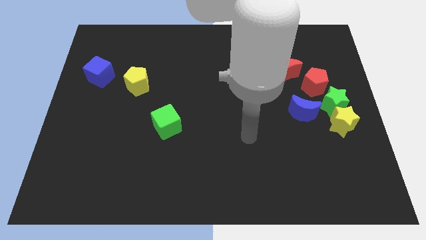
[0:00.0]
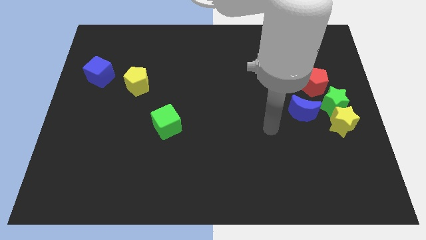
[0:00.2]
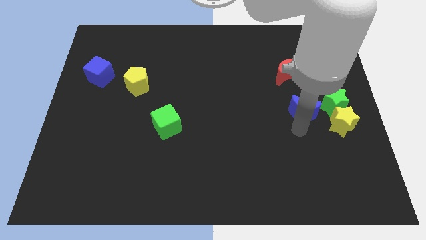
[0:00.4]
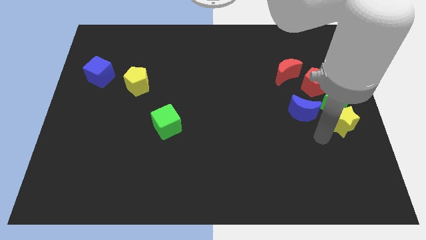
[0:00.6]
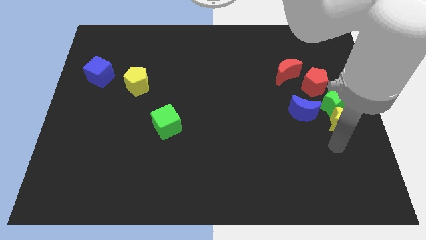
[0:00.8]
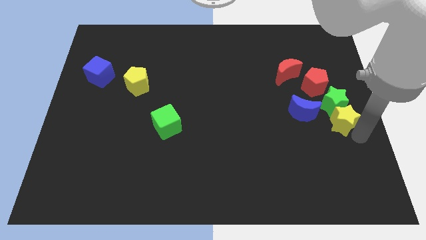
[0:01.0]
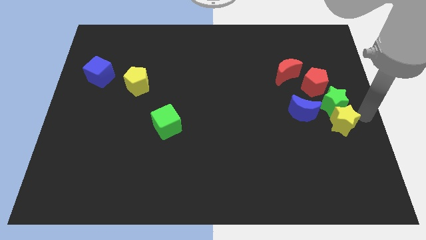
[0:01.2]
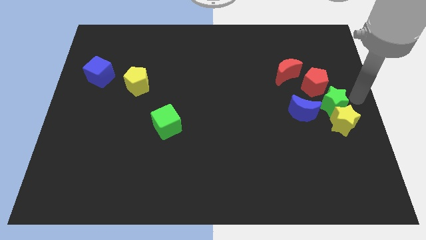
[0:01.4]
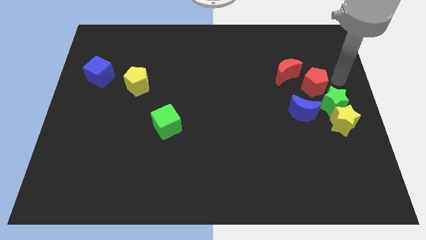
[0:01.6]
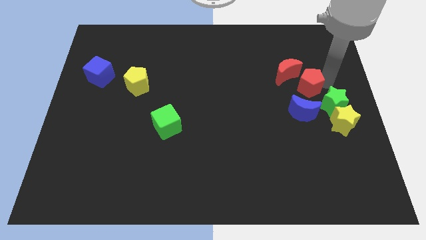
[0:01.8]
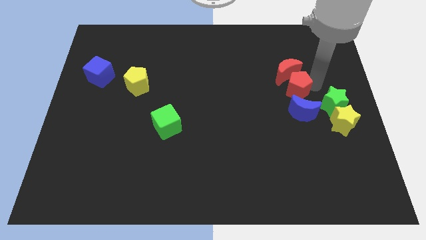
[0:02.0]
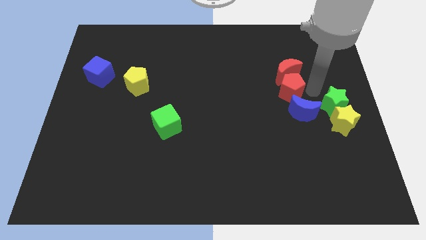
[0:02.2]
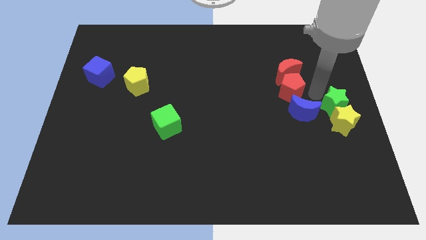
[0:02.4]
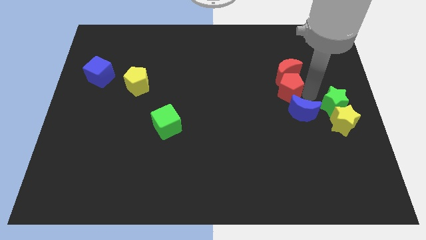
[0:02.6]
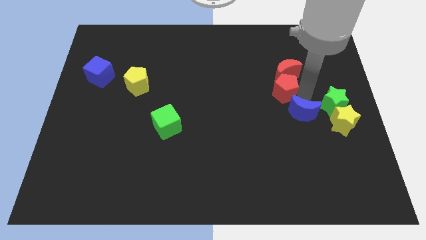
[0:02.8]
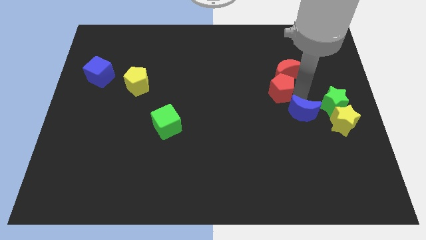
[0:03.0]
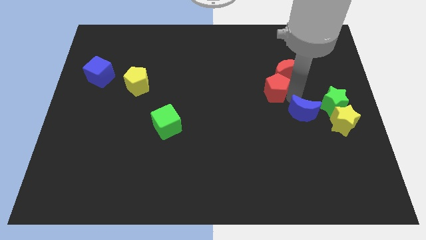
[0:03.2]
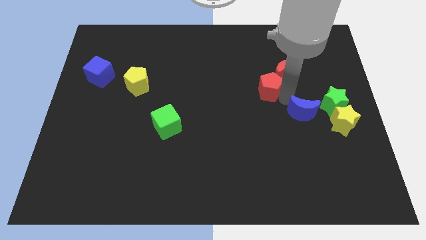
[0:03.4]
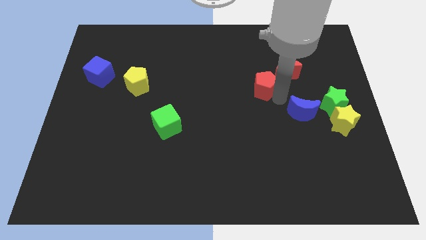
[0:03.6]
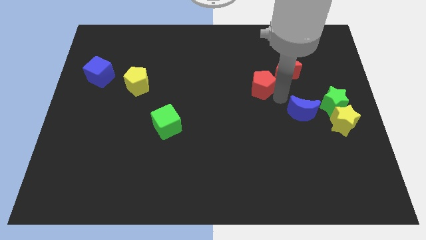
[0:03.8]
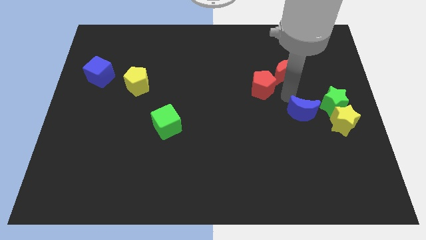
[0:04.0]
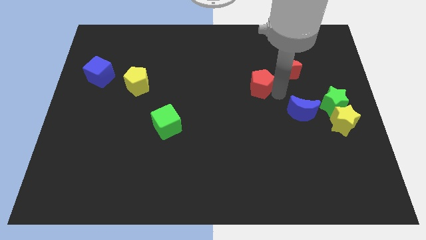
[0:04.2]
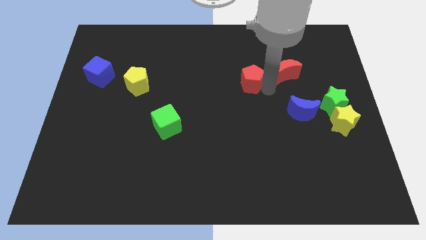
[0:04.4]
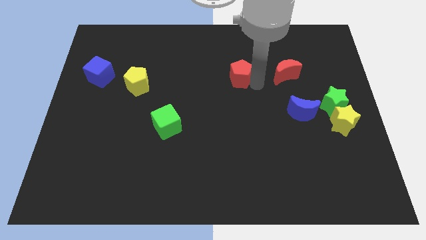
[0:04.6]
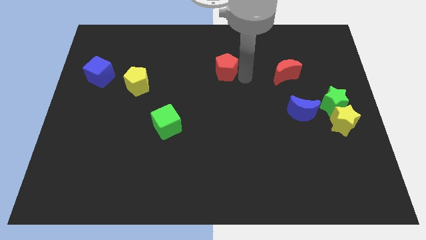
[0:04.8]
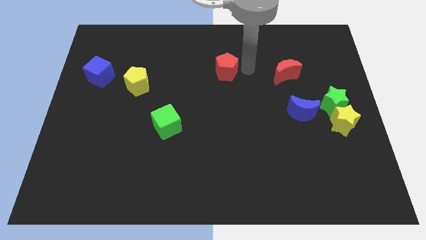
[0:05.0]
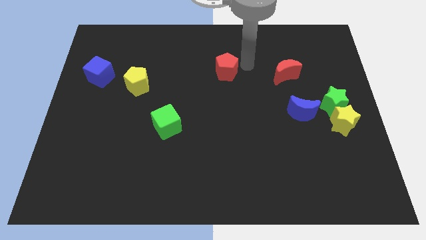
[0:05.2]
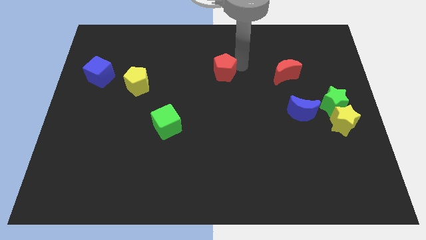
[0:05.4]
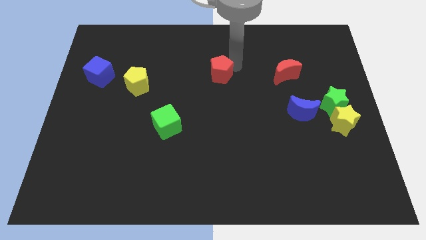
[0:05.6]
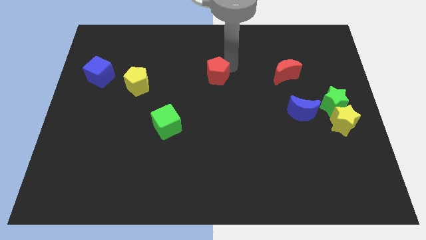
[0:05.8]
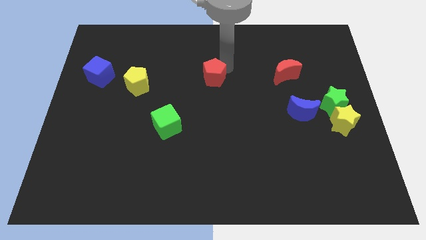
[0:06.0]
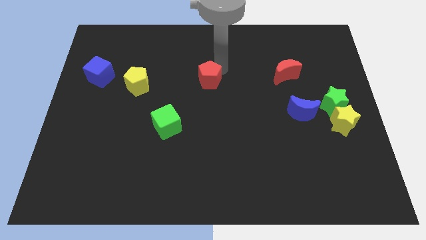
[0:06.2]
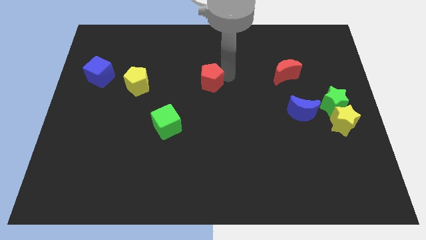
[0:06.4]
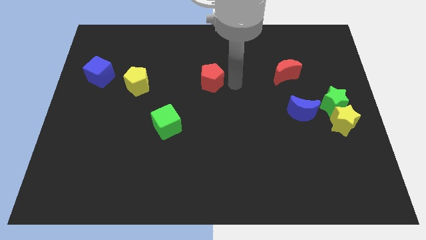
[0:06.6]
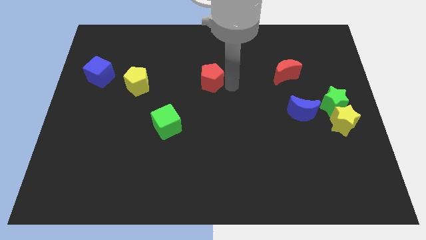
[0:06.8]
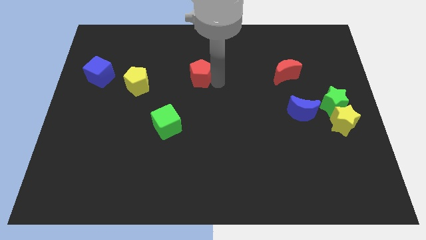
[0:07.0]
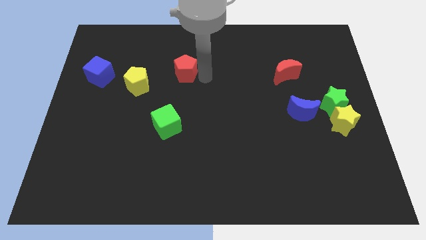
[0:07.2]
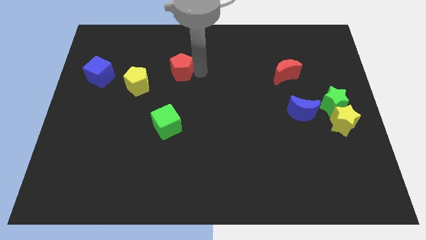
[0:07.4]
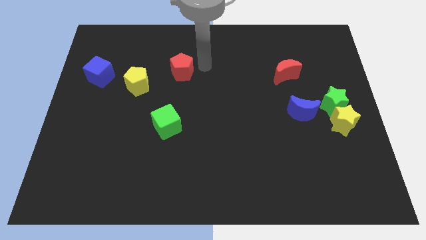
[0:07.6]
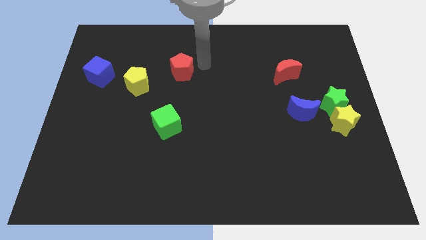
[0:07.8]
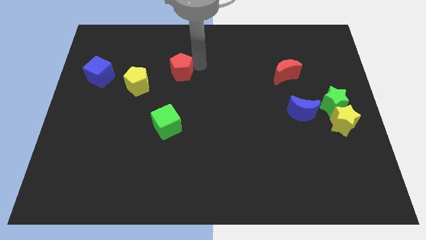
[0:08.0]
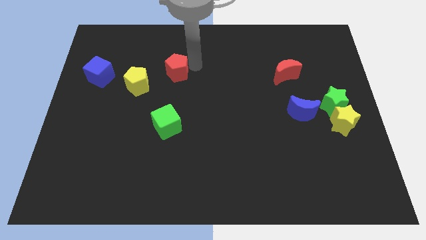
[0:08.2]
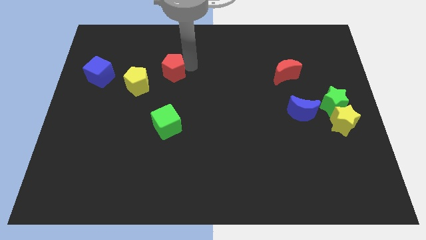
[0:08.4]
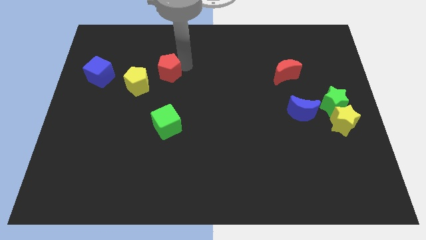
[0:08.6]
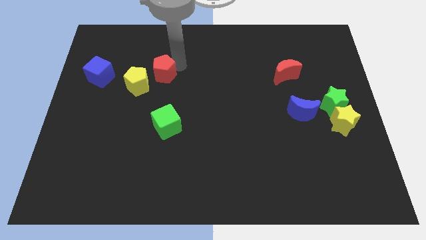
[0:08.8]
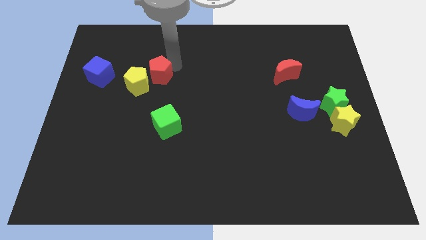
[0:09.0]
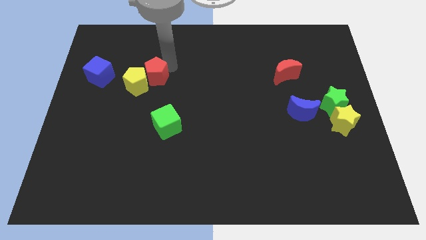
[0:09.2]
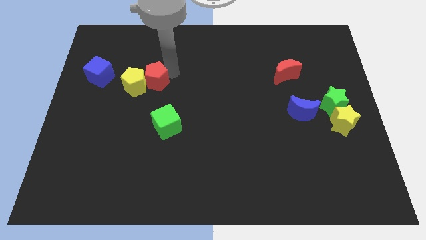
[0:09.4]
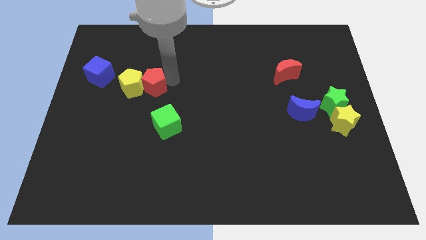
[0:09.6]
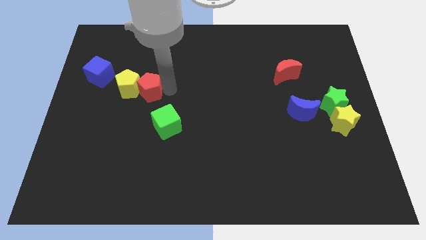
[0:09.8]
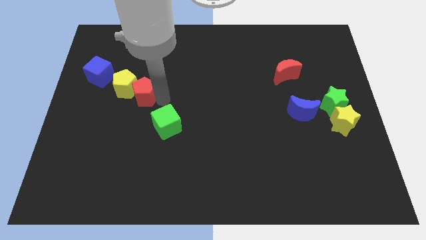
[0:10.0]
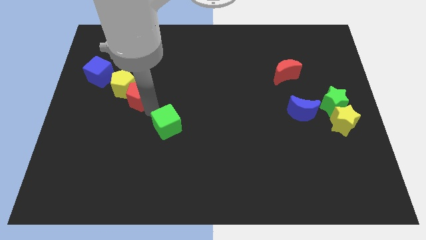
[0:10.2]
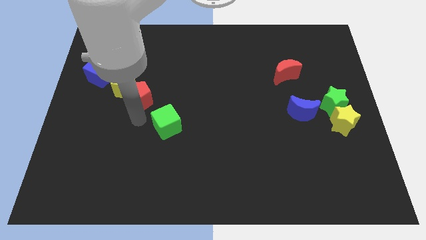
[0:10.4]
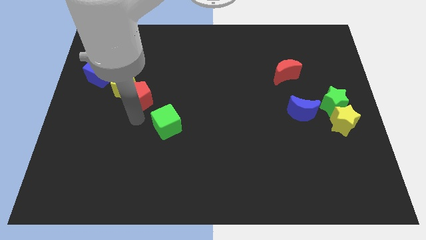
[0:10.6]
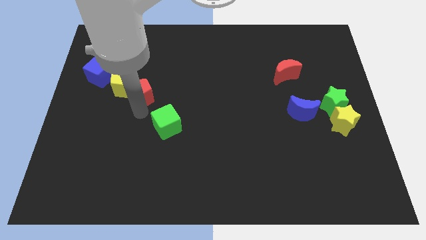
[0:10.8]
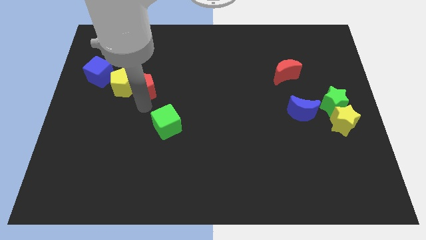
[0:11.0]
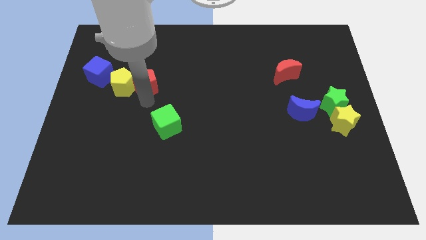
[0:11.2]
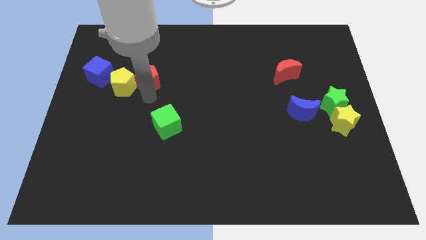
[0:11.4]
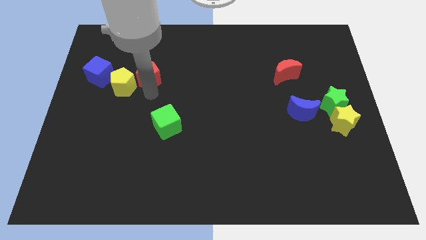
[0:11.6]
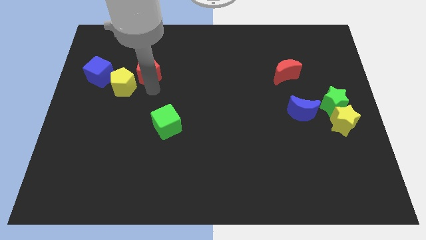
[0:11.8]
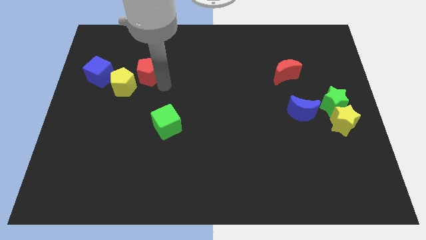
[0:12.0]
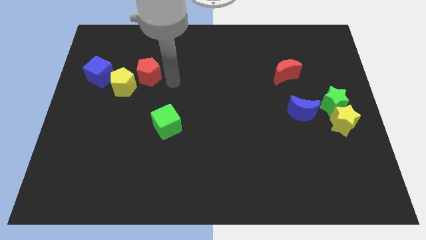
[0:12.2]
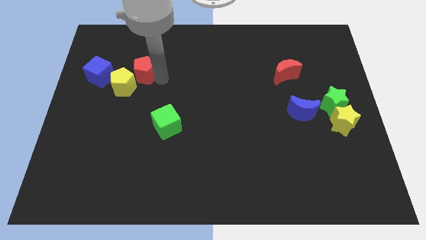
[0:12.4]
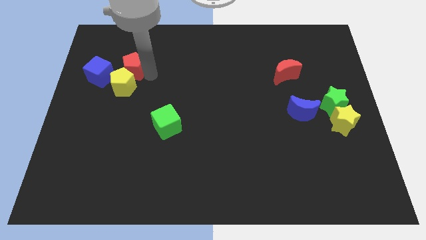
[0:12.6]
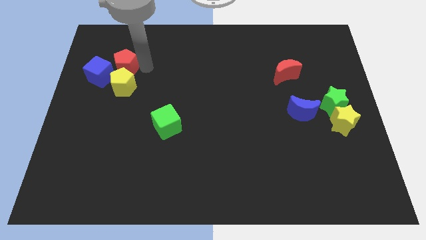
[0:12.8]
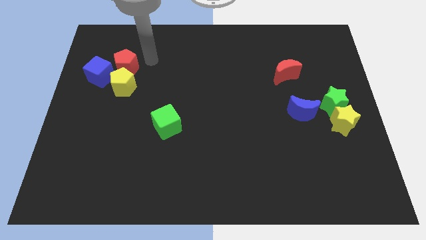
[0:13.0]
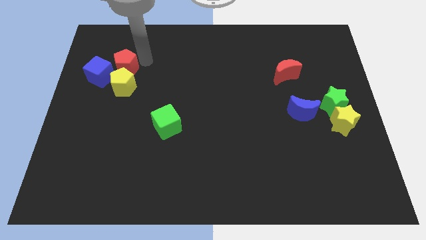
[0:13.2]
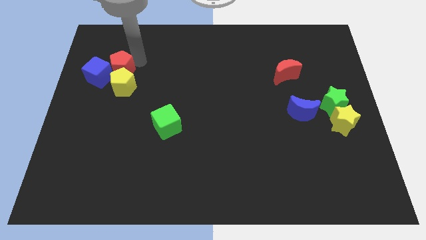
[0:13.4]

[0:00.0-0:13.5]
move the red pentagon towards the blue cube
